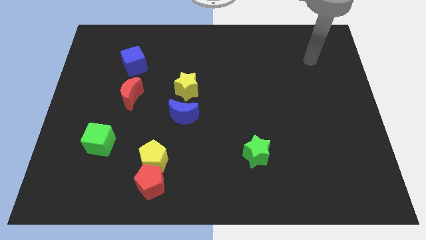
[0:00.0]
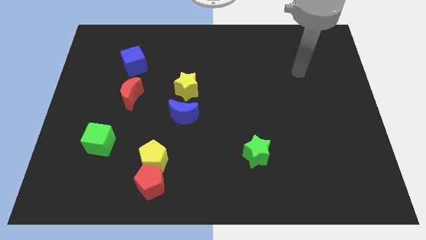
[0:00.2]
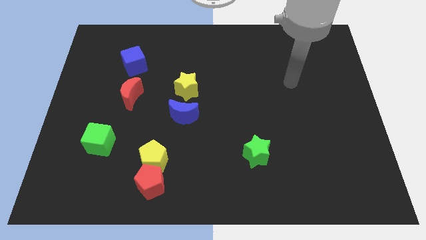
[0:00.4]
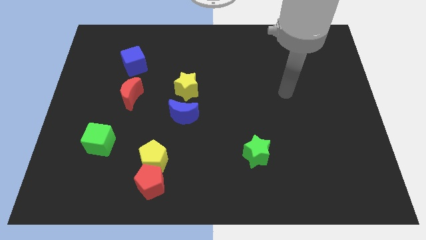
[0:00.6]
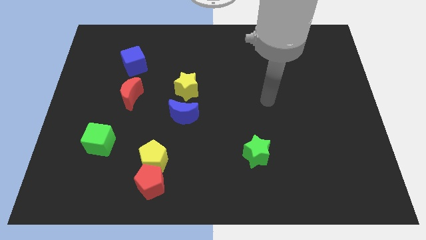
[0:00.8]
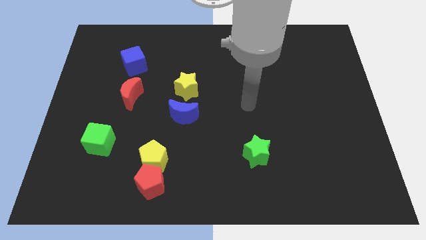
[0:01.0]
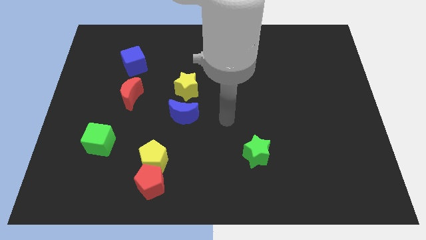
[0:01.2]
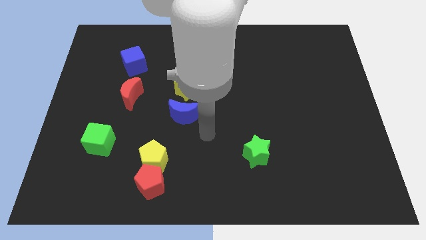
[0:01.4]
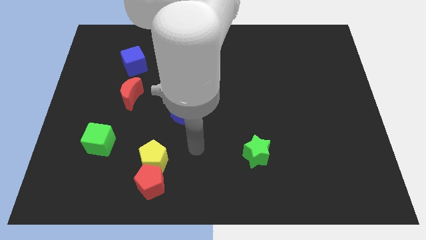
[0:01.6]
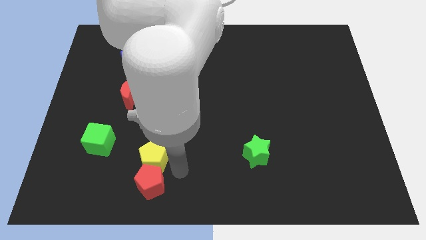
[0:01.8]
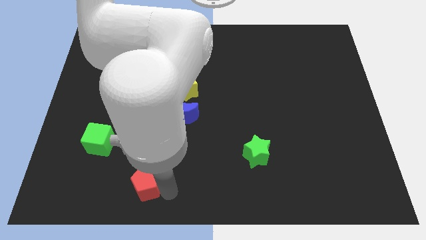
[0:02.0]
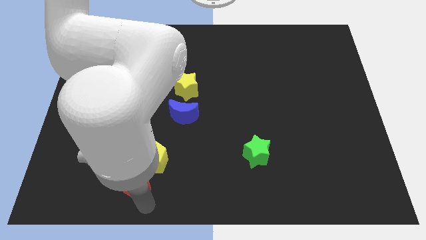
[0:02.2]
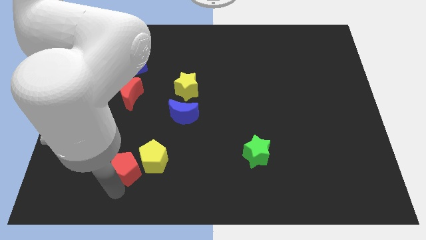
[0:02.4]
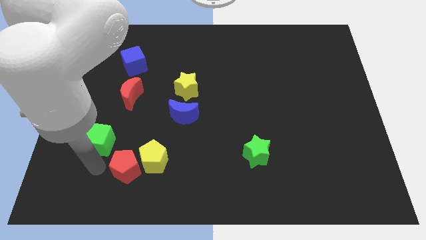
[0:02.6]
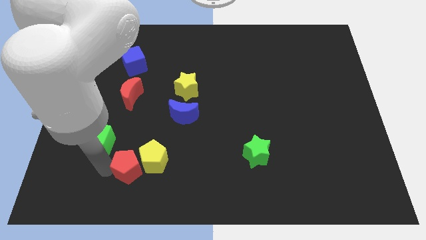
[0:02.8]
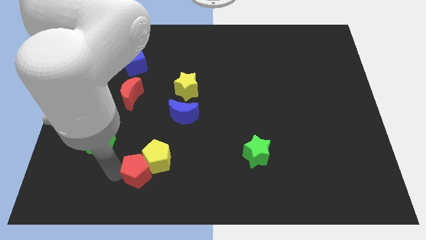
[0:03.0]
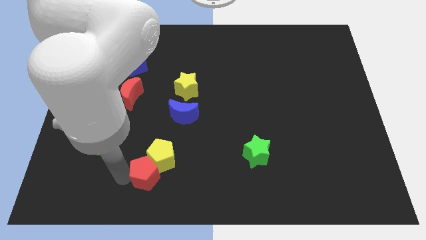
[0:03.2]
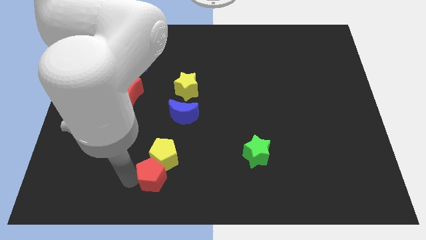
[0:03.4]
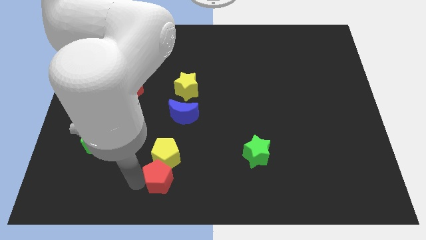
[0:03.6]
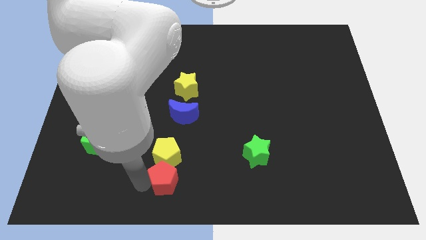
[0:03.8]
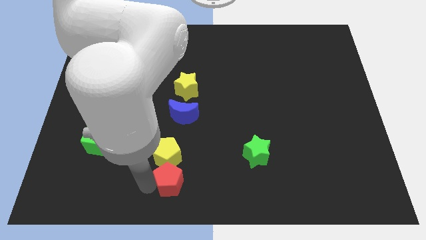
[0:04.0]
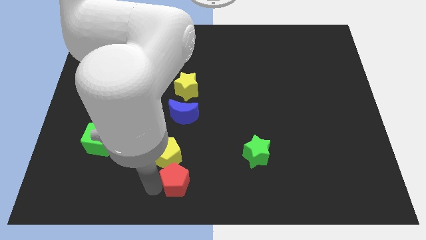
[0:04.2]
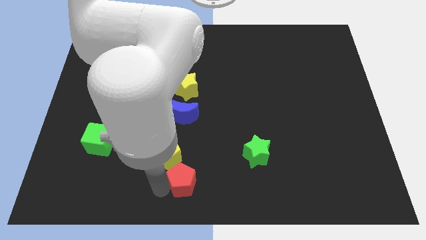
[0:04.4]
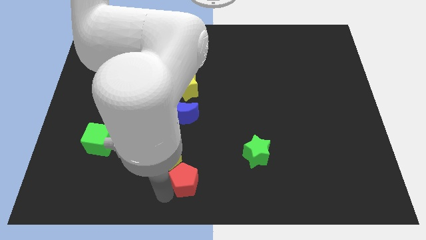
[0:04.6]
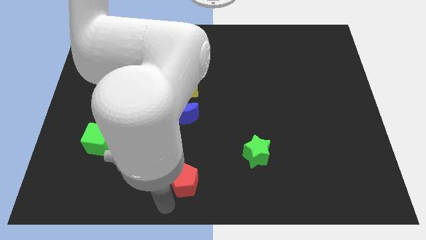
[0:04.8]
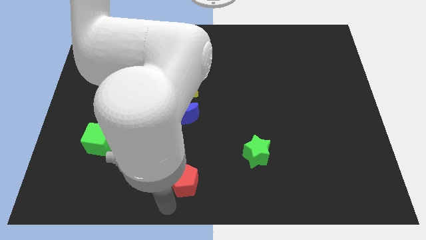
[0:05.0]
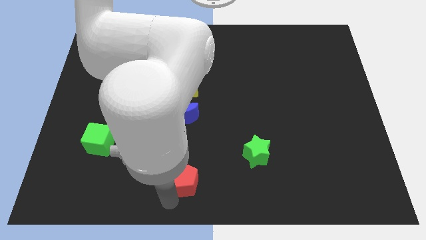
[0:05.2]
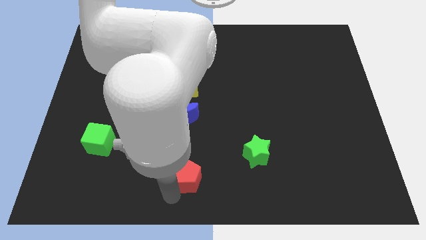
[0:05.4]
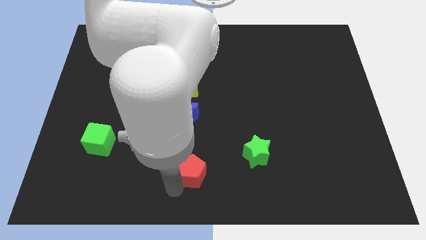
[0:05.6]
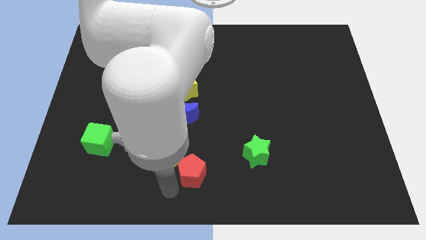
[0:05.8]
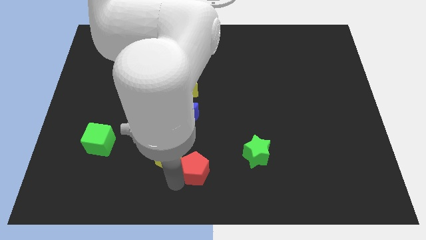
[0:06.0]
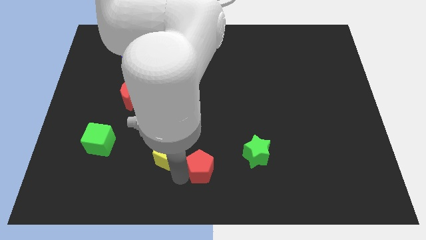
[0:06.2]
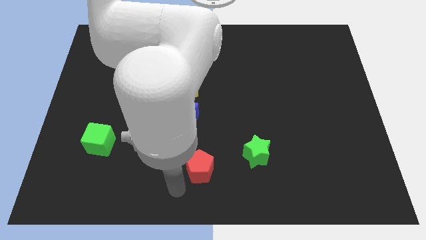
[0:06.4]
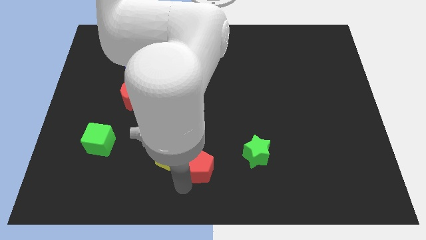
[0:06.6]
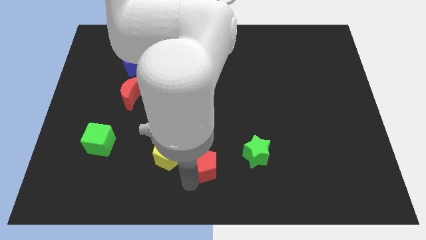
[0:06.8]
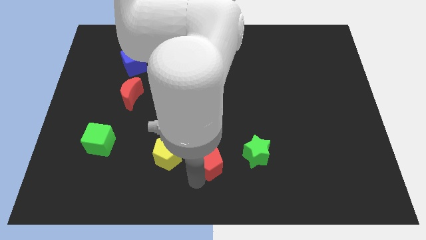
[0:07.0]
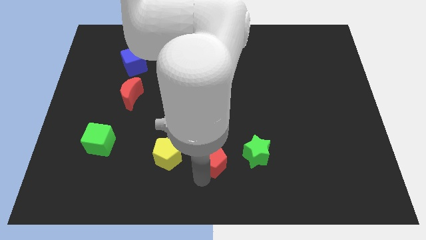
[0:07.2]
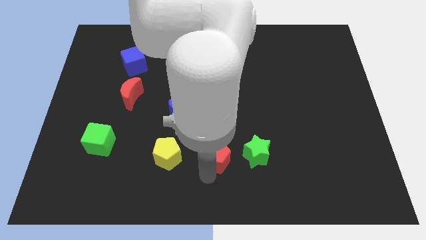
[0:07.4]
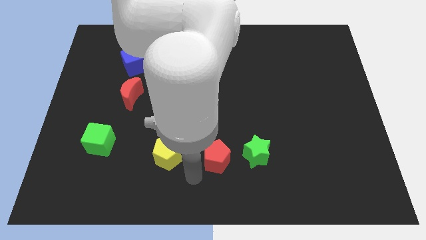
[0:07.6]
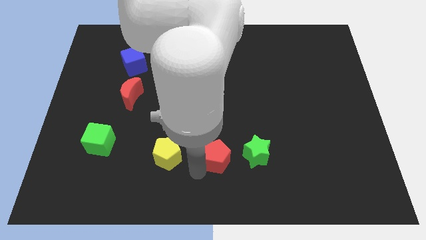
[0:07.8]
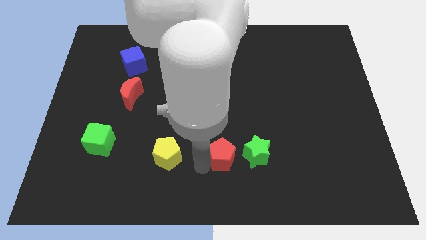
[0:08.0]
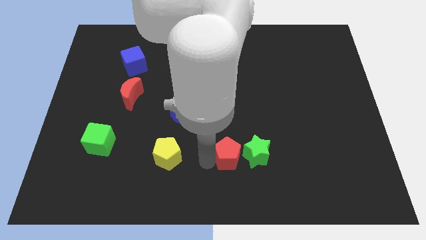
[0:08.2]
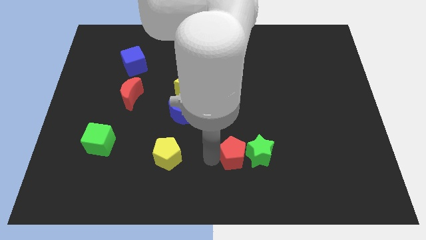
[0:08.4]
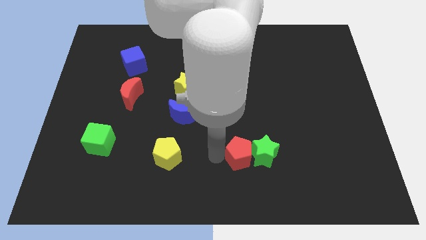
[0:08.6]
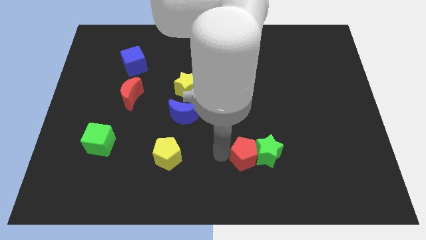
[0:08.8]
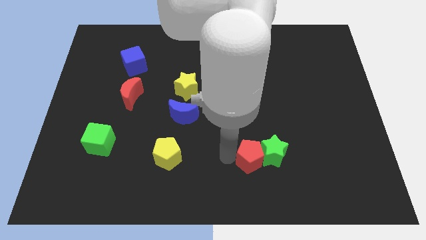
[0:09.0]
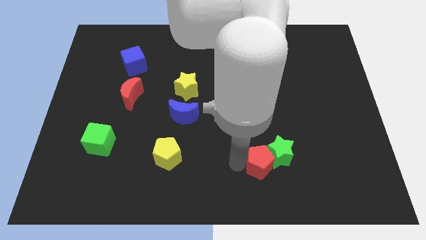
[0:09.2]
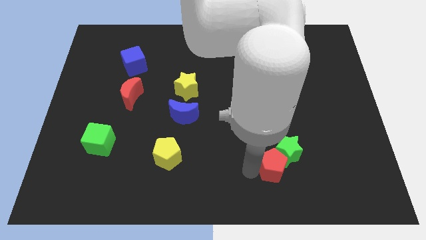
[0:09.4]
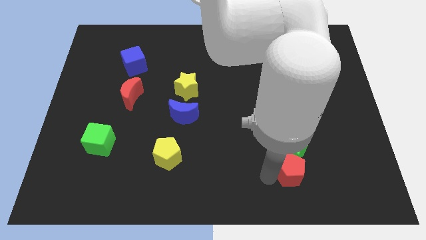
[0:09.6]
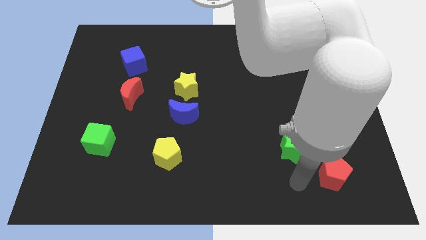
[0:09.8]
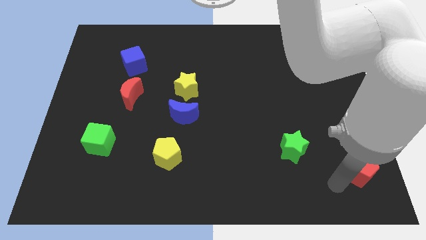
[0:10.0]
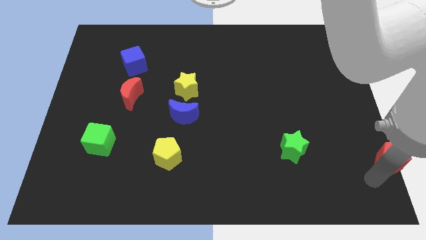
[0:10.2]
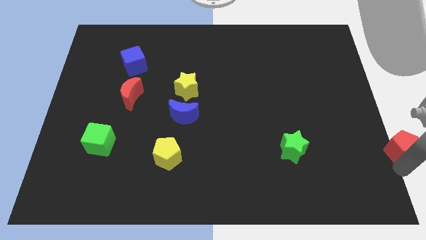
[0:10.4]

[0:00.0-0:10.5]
put the red pentagon to the center right

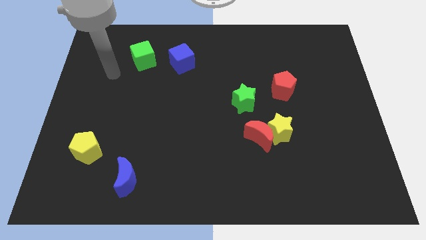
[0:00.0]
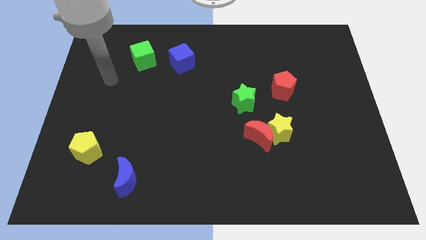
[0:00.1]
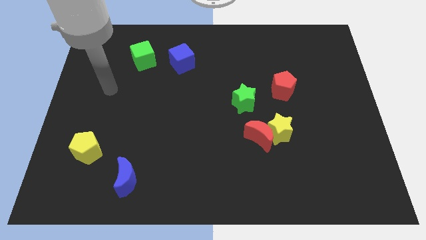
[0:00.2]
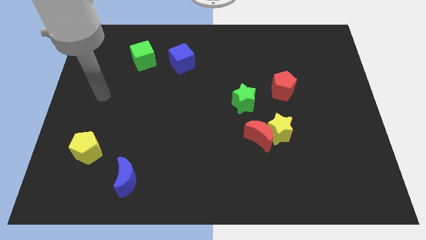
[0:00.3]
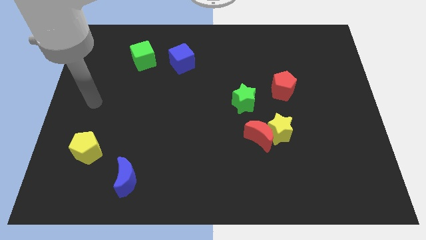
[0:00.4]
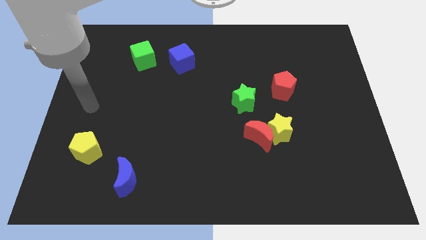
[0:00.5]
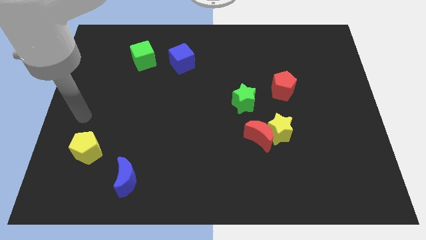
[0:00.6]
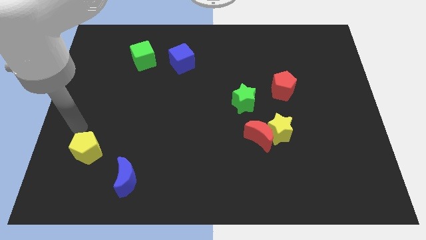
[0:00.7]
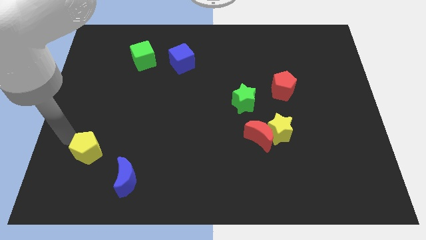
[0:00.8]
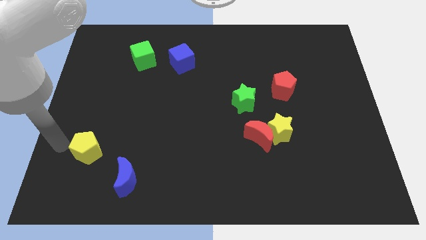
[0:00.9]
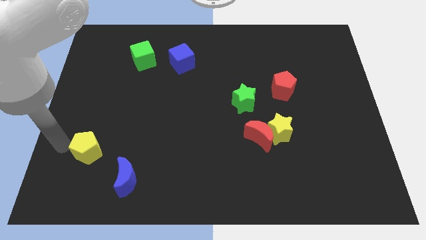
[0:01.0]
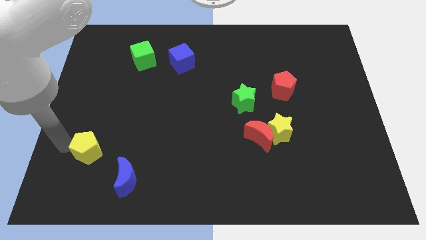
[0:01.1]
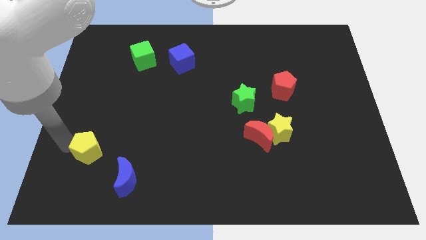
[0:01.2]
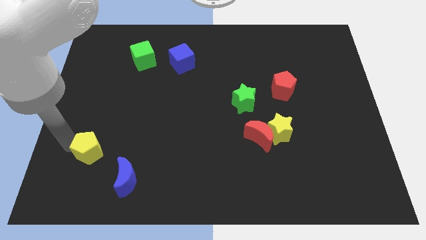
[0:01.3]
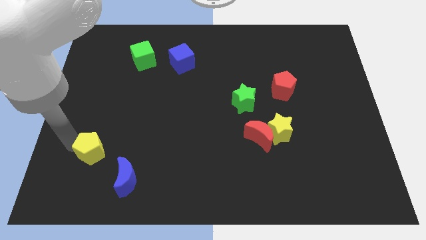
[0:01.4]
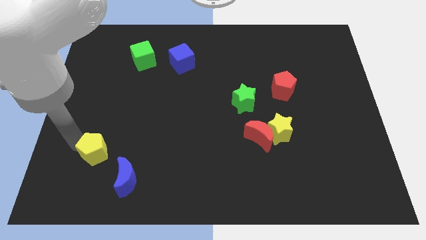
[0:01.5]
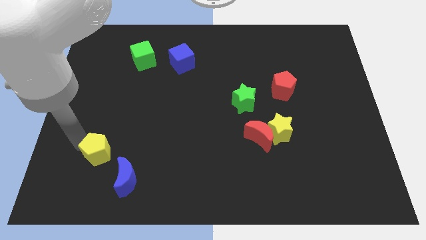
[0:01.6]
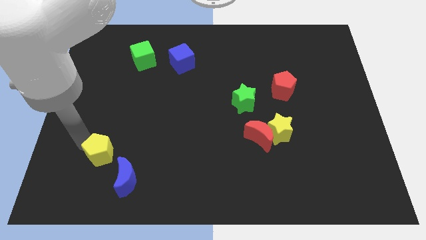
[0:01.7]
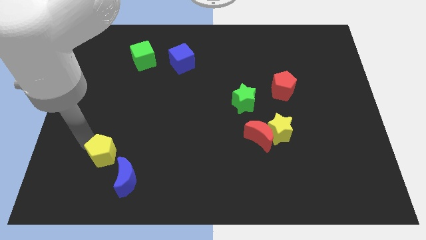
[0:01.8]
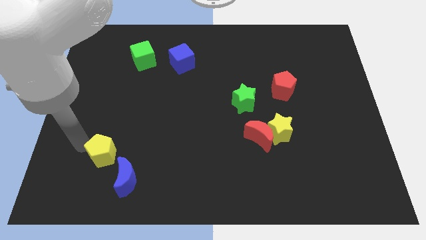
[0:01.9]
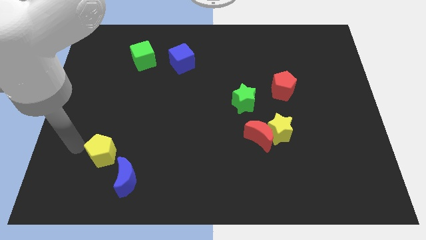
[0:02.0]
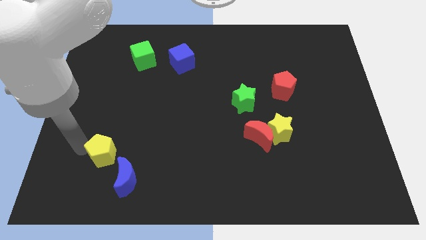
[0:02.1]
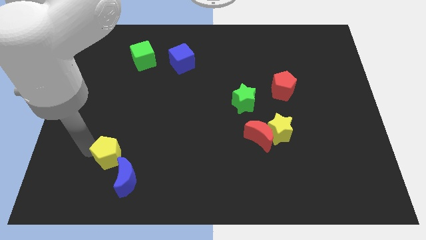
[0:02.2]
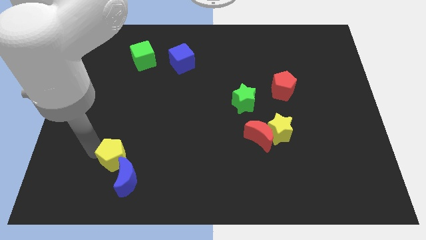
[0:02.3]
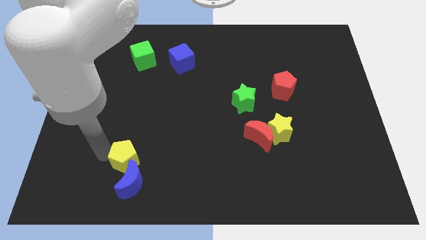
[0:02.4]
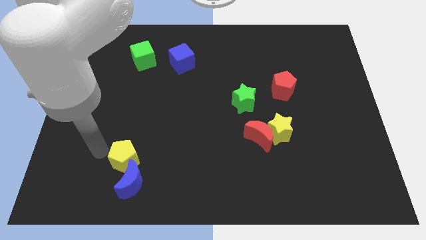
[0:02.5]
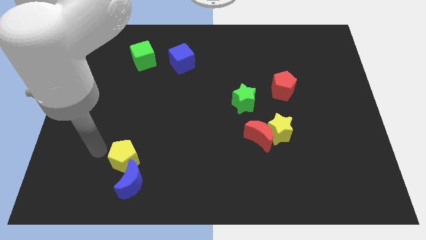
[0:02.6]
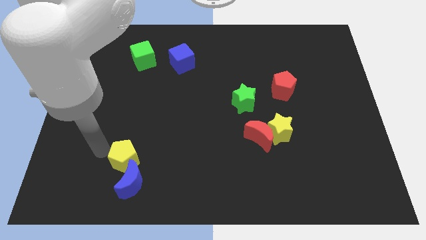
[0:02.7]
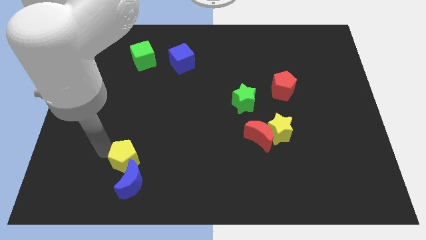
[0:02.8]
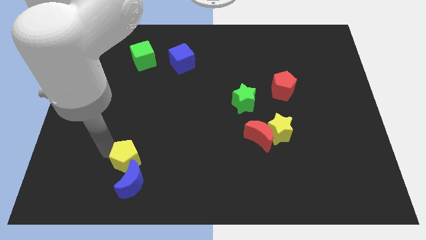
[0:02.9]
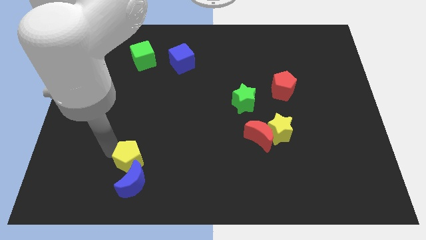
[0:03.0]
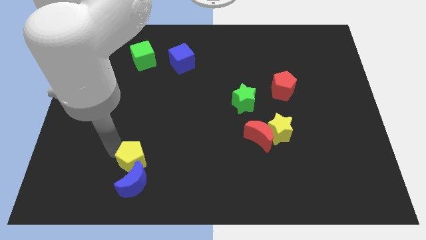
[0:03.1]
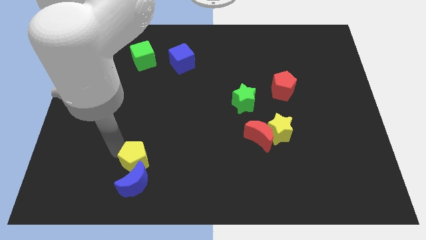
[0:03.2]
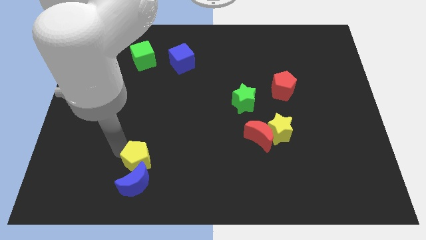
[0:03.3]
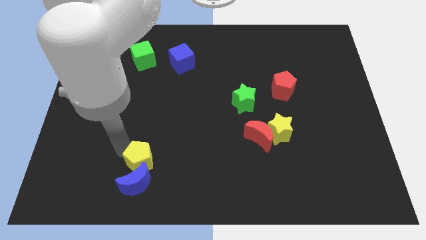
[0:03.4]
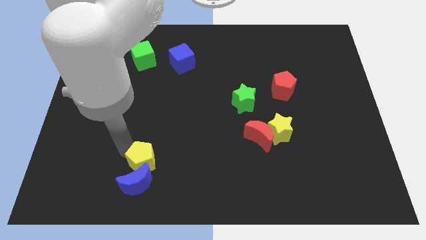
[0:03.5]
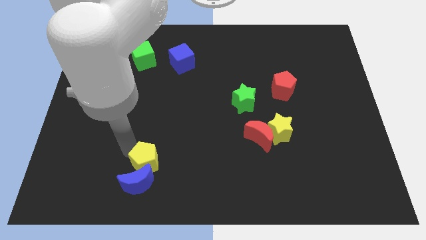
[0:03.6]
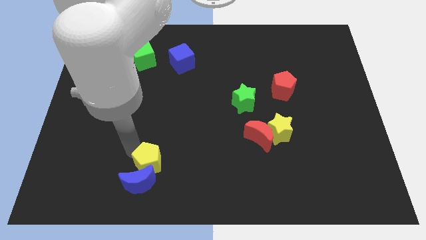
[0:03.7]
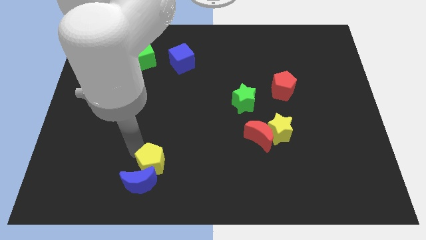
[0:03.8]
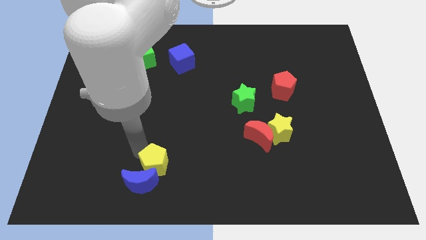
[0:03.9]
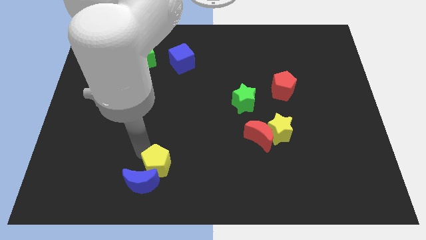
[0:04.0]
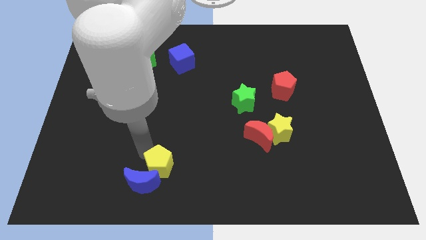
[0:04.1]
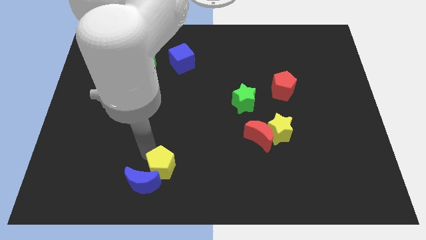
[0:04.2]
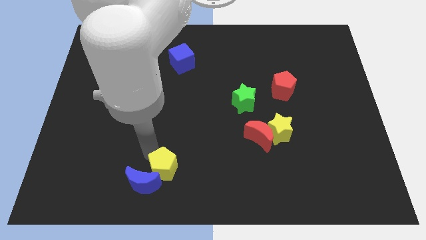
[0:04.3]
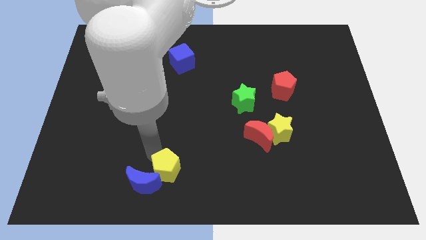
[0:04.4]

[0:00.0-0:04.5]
push the yellow pentagon to the bottom
